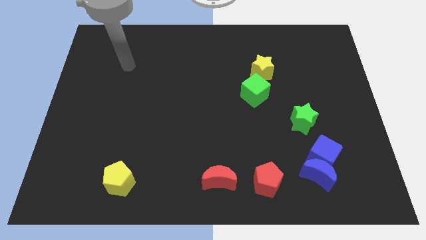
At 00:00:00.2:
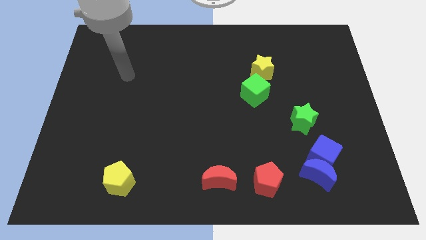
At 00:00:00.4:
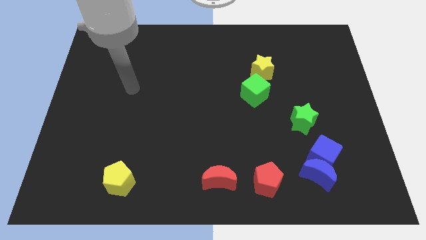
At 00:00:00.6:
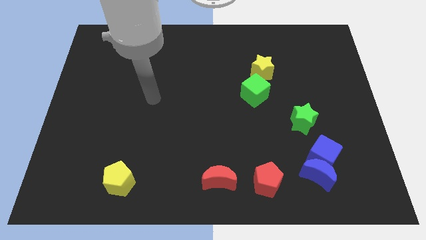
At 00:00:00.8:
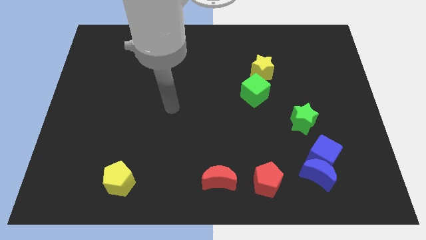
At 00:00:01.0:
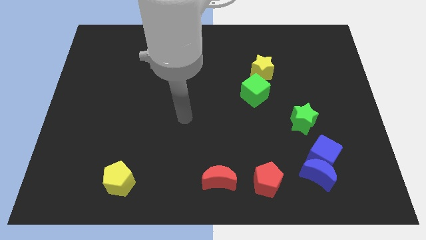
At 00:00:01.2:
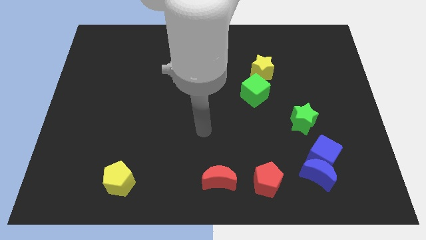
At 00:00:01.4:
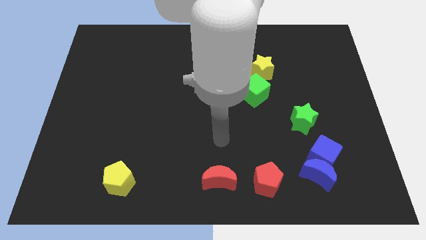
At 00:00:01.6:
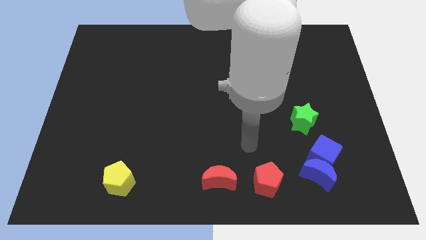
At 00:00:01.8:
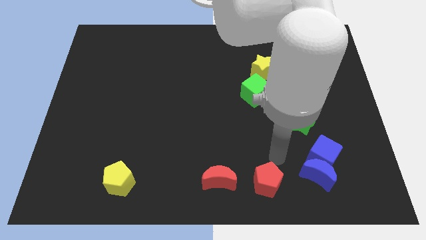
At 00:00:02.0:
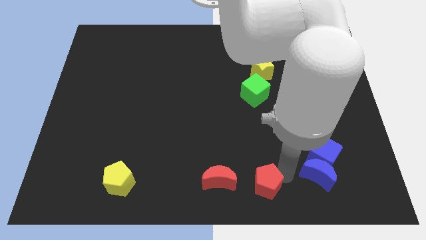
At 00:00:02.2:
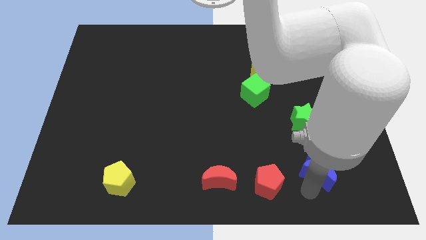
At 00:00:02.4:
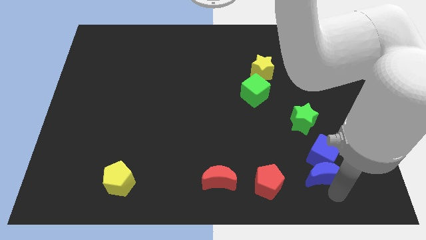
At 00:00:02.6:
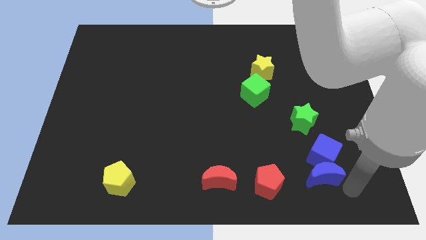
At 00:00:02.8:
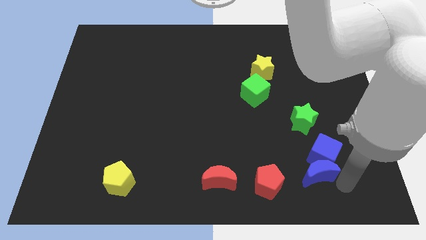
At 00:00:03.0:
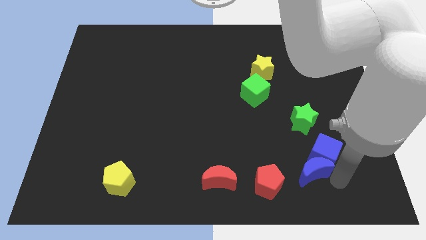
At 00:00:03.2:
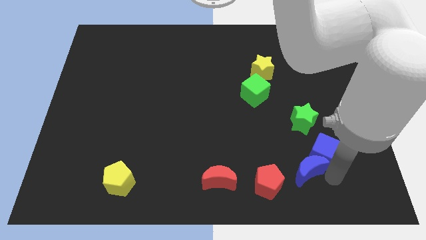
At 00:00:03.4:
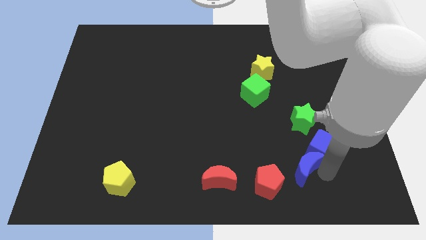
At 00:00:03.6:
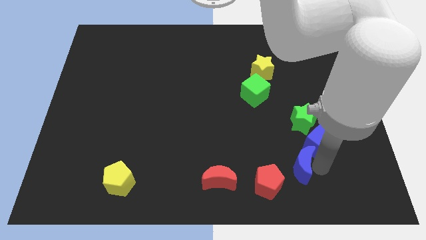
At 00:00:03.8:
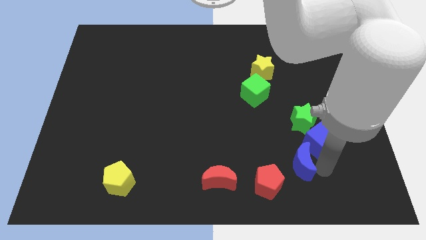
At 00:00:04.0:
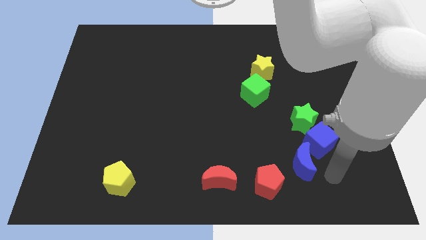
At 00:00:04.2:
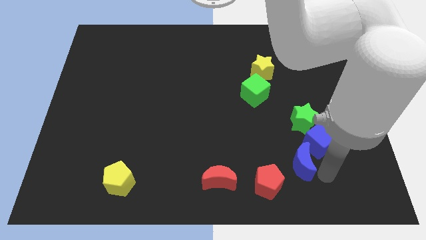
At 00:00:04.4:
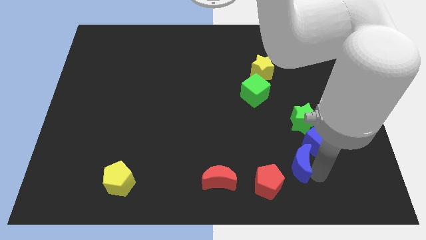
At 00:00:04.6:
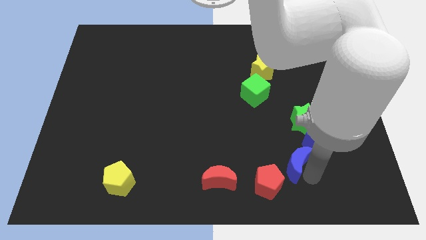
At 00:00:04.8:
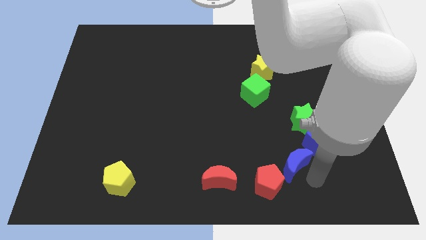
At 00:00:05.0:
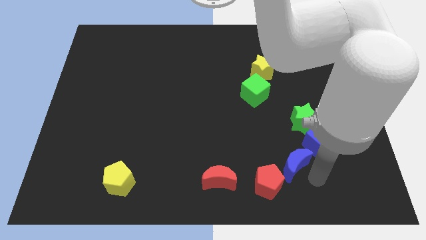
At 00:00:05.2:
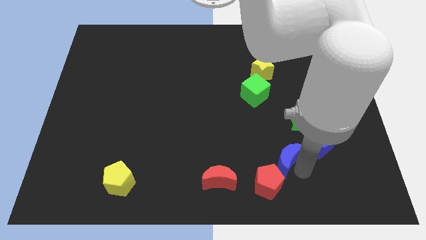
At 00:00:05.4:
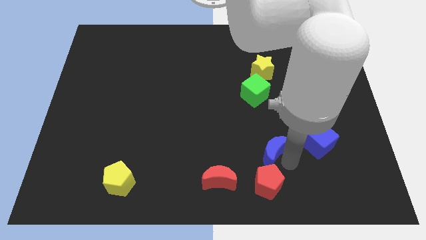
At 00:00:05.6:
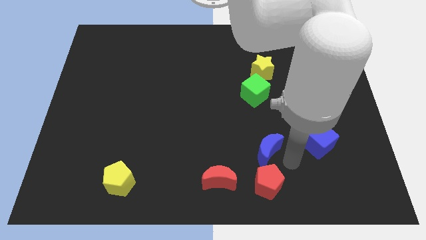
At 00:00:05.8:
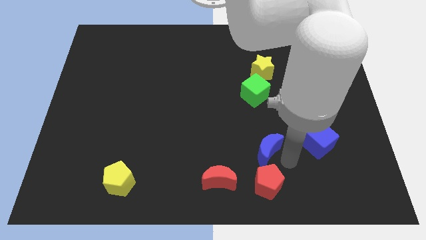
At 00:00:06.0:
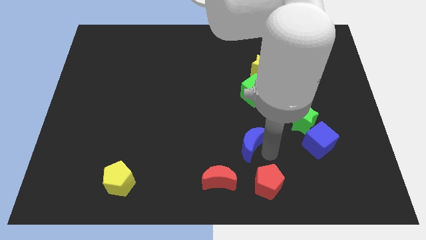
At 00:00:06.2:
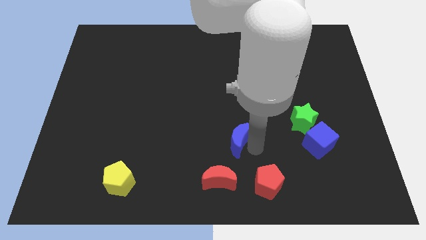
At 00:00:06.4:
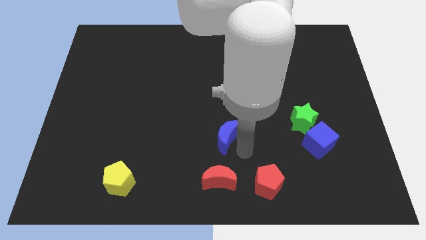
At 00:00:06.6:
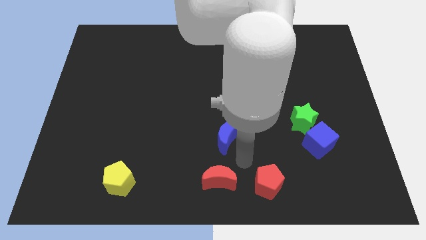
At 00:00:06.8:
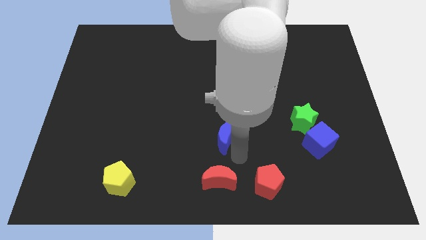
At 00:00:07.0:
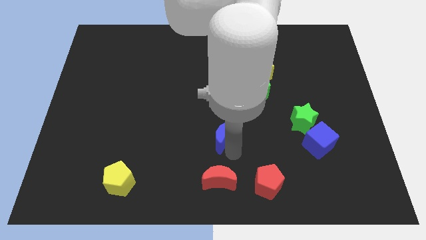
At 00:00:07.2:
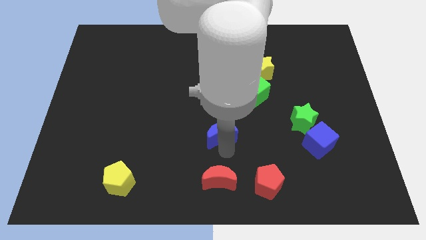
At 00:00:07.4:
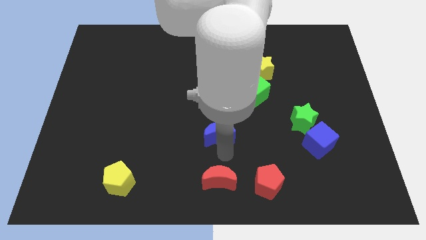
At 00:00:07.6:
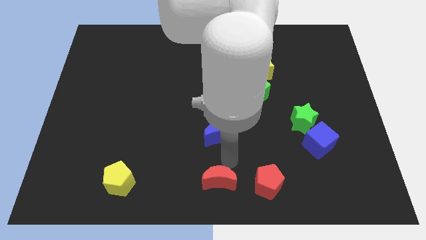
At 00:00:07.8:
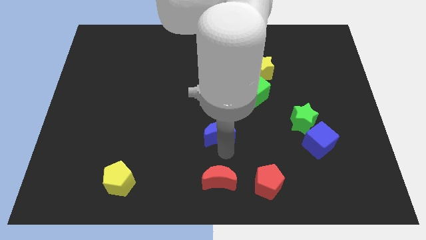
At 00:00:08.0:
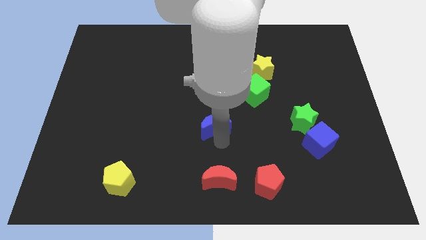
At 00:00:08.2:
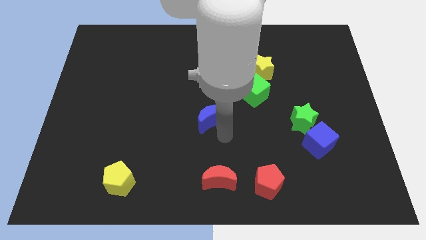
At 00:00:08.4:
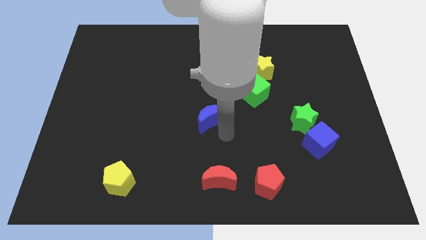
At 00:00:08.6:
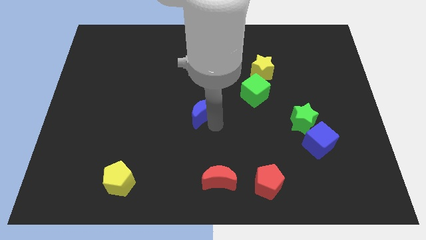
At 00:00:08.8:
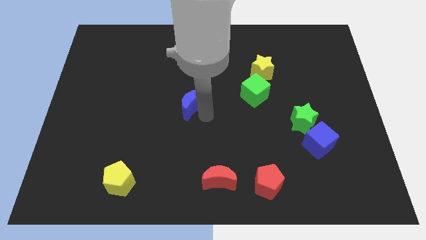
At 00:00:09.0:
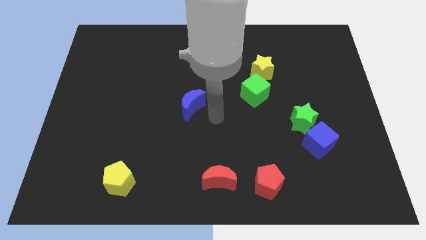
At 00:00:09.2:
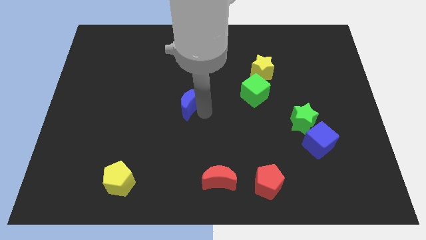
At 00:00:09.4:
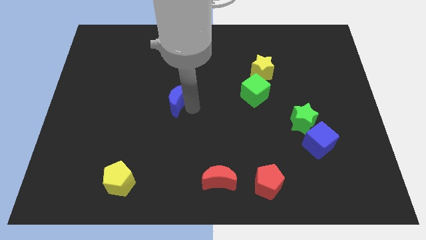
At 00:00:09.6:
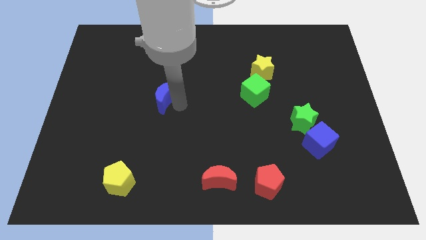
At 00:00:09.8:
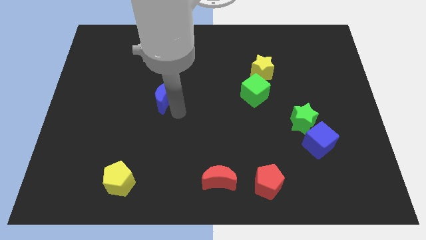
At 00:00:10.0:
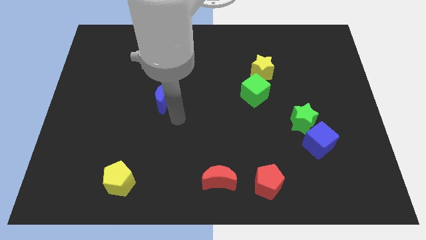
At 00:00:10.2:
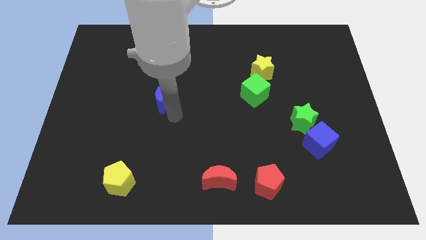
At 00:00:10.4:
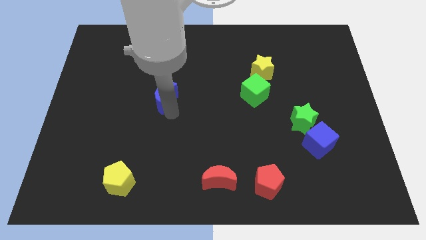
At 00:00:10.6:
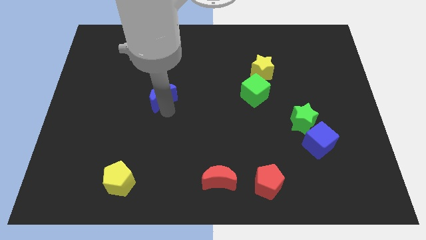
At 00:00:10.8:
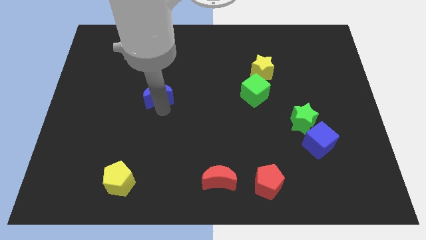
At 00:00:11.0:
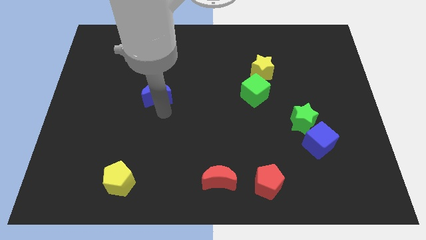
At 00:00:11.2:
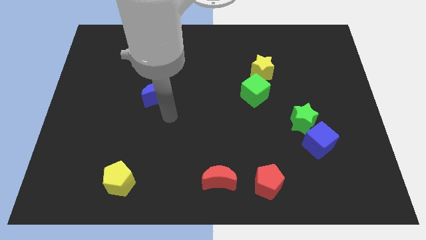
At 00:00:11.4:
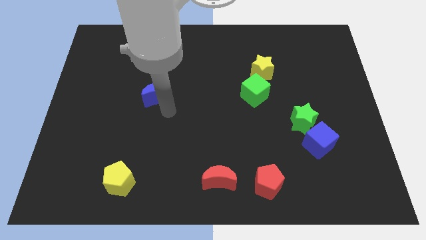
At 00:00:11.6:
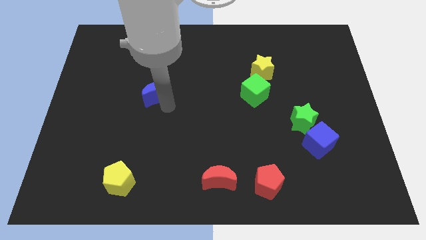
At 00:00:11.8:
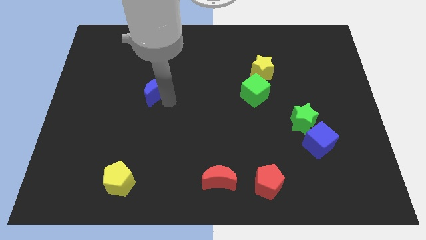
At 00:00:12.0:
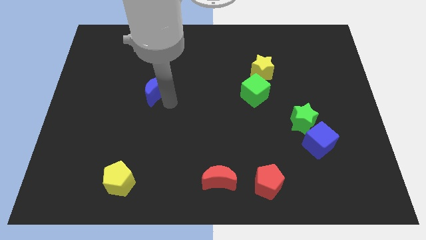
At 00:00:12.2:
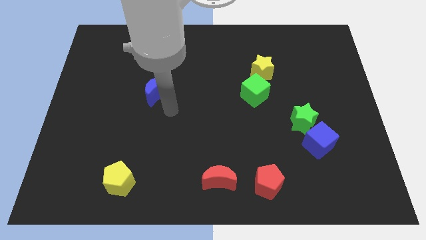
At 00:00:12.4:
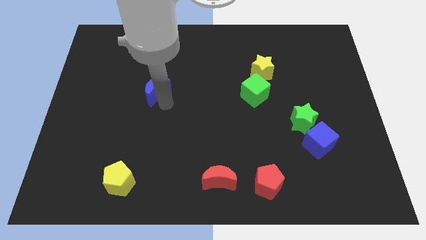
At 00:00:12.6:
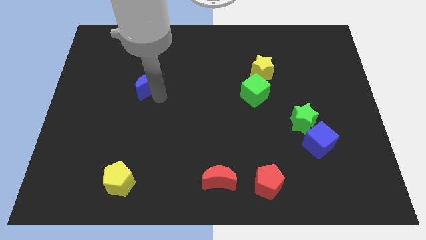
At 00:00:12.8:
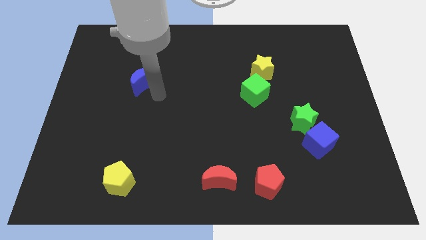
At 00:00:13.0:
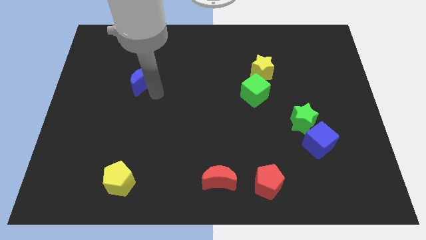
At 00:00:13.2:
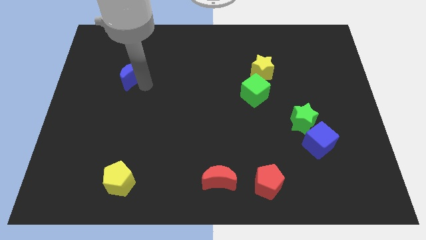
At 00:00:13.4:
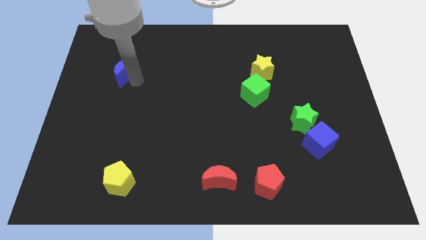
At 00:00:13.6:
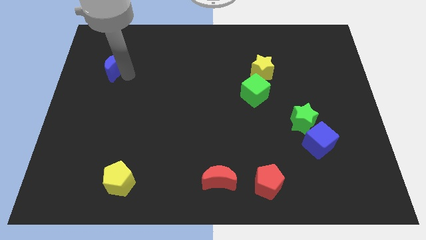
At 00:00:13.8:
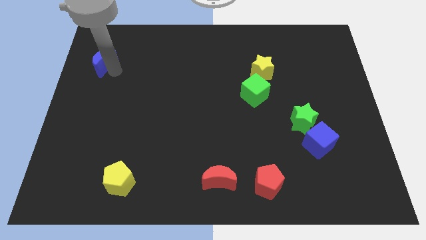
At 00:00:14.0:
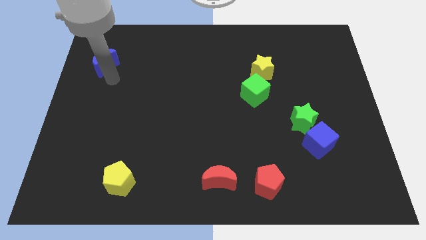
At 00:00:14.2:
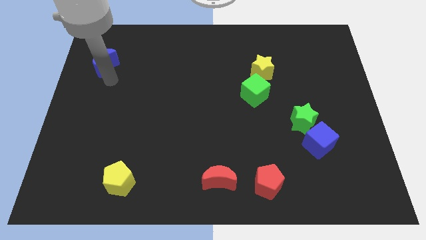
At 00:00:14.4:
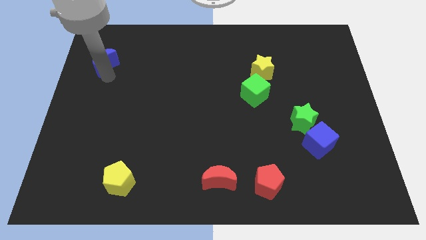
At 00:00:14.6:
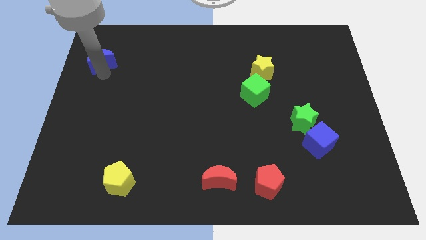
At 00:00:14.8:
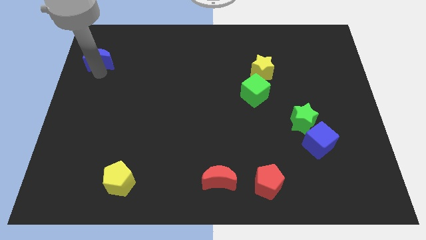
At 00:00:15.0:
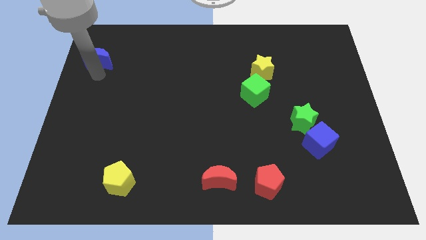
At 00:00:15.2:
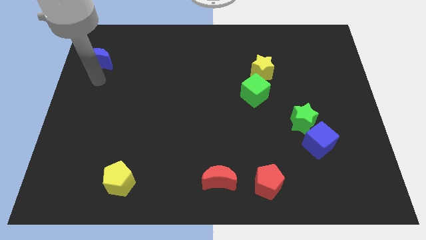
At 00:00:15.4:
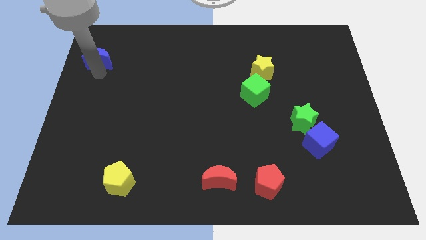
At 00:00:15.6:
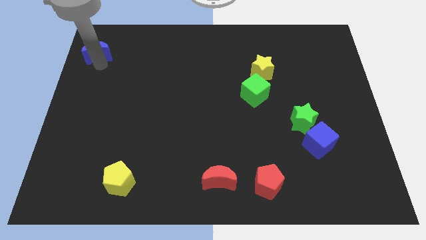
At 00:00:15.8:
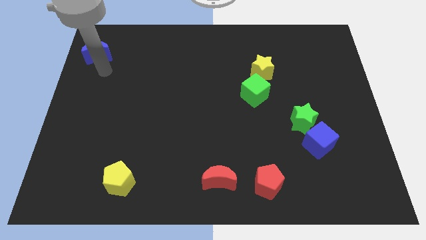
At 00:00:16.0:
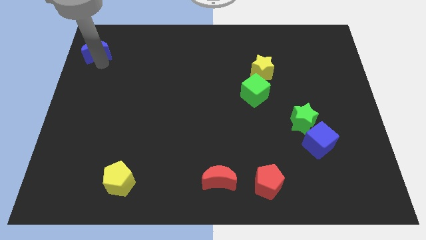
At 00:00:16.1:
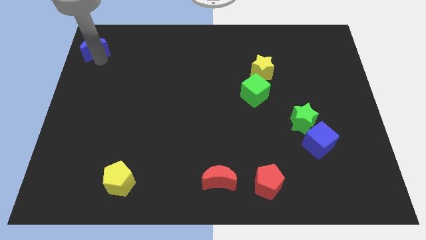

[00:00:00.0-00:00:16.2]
push the blue moon to the top left of the board
